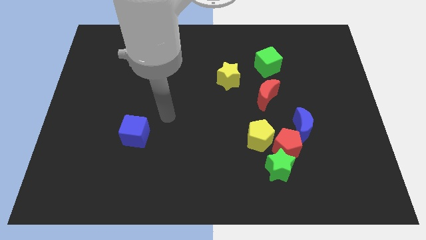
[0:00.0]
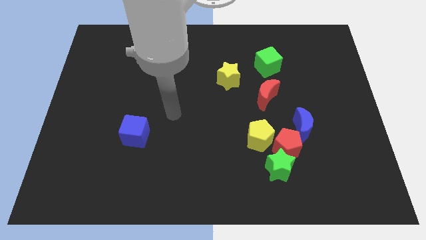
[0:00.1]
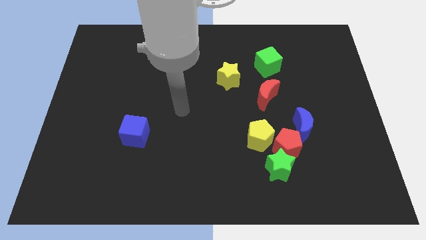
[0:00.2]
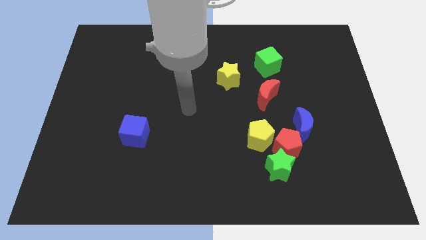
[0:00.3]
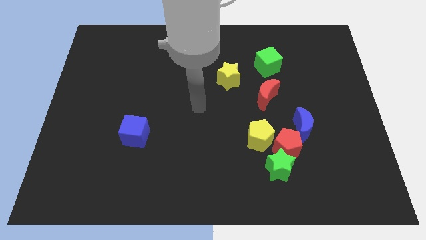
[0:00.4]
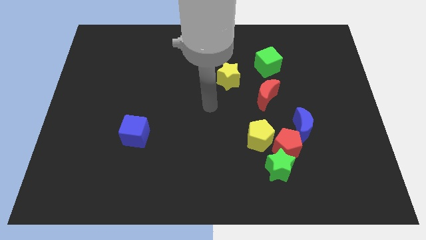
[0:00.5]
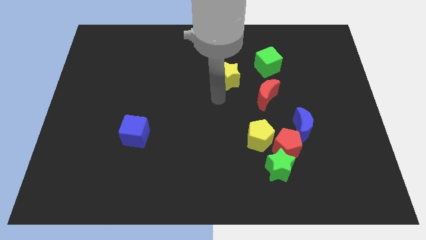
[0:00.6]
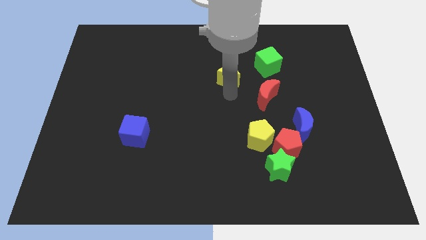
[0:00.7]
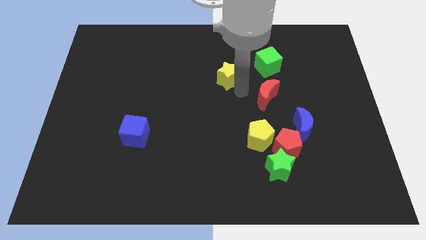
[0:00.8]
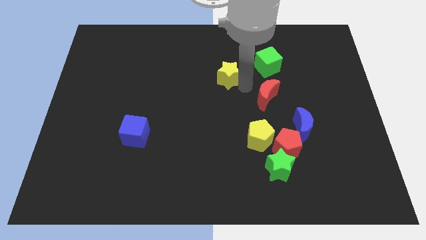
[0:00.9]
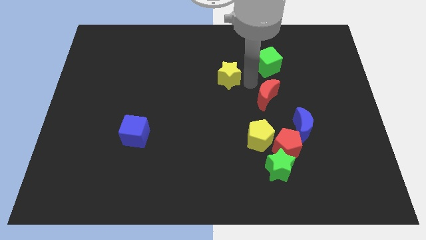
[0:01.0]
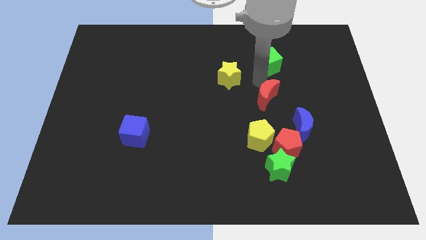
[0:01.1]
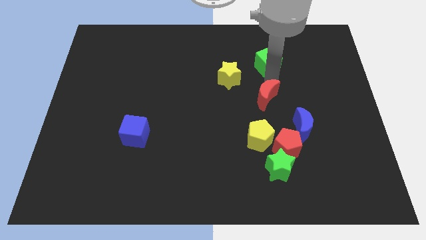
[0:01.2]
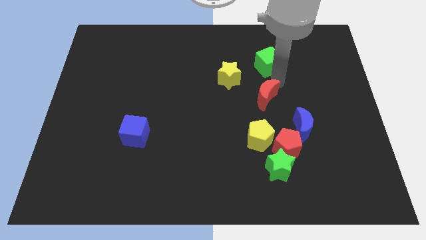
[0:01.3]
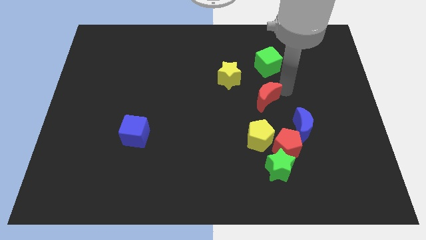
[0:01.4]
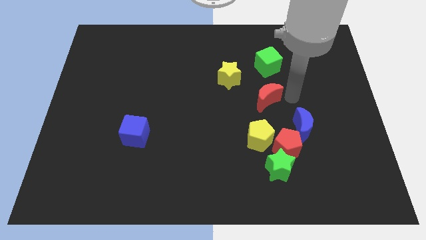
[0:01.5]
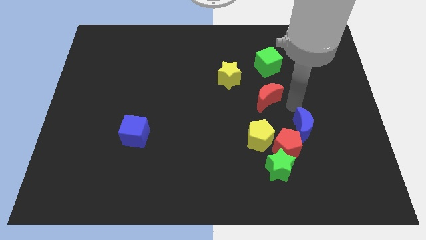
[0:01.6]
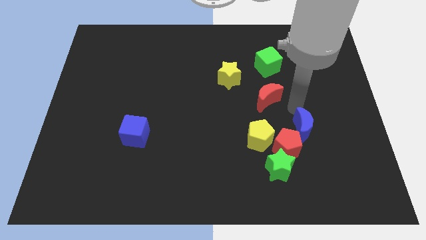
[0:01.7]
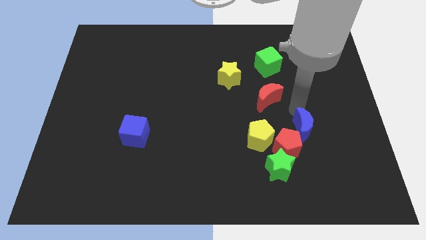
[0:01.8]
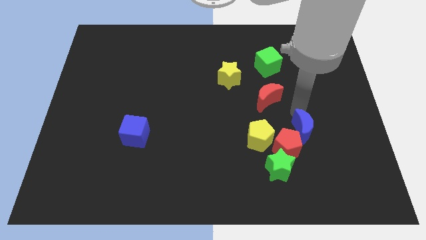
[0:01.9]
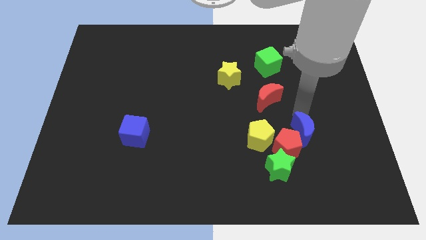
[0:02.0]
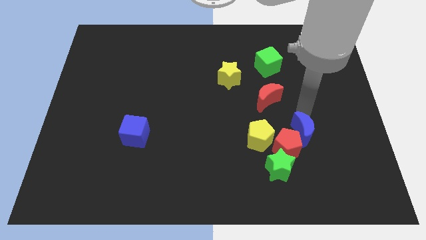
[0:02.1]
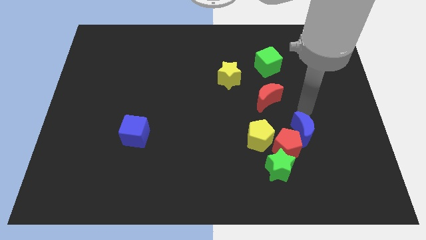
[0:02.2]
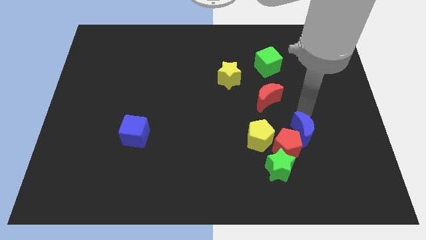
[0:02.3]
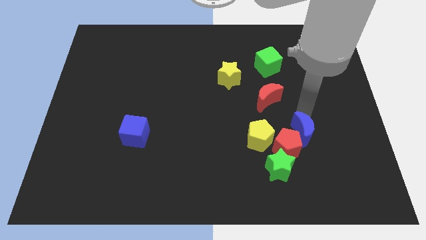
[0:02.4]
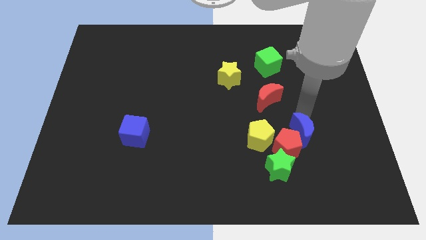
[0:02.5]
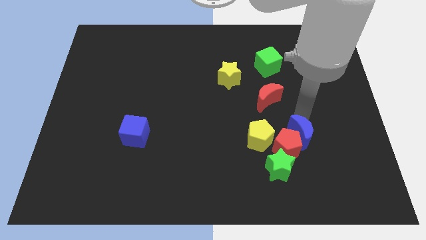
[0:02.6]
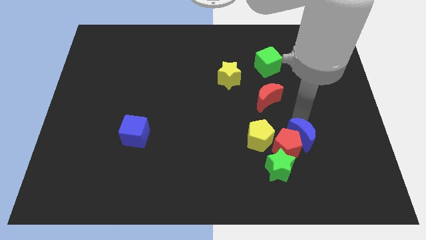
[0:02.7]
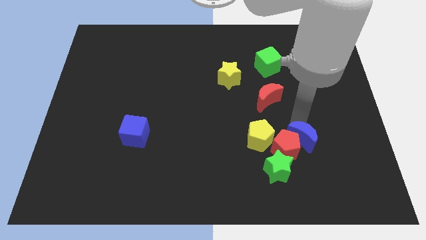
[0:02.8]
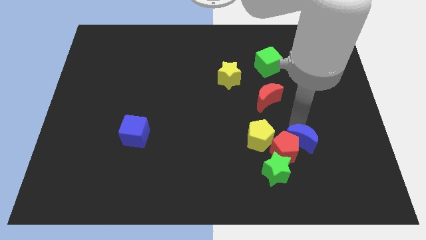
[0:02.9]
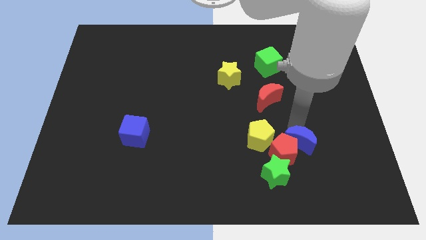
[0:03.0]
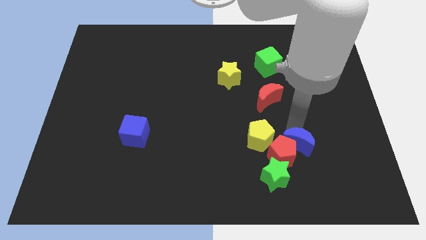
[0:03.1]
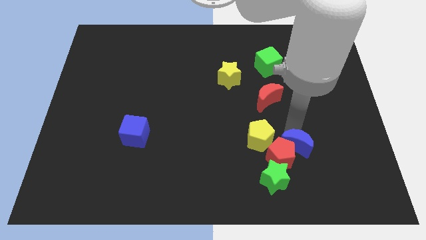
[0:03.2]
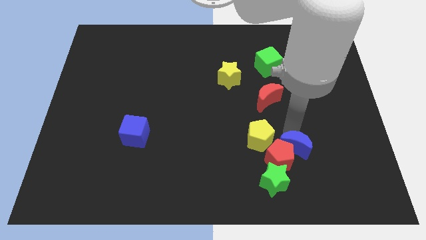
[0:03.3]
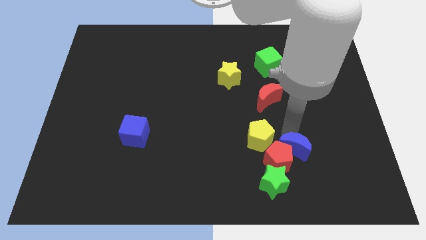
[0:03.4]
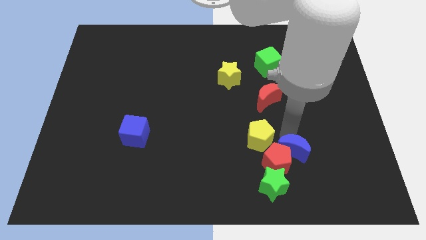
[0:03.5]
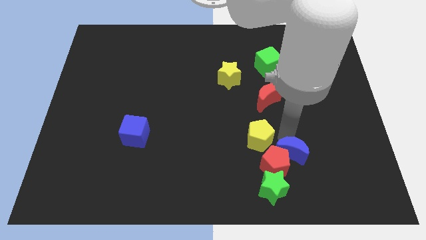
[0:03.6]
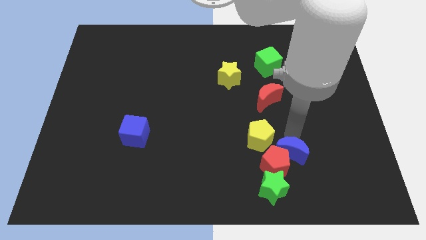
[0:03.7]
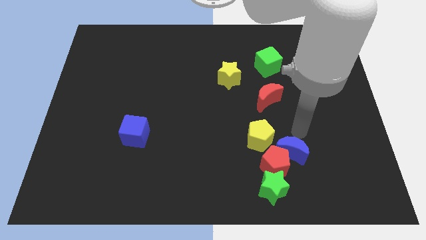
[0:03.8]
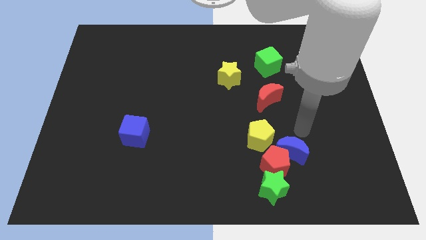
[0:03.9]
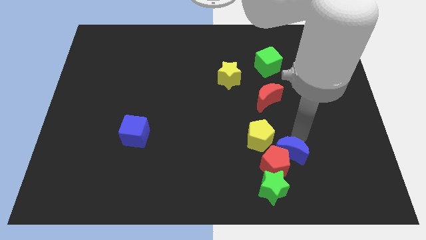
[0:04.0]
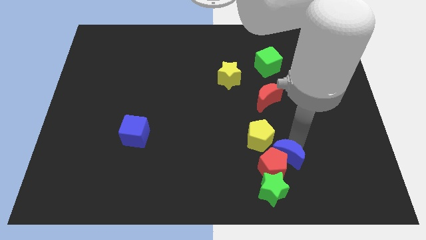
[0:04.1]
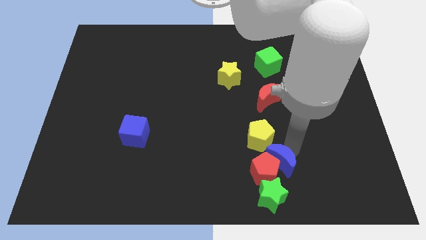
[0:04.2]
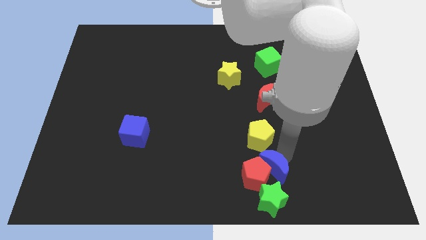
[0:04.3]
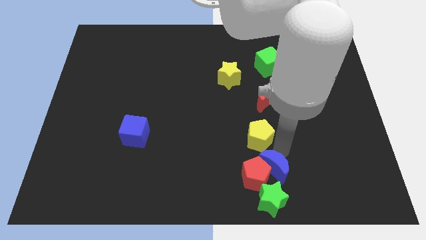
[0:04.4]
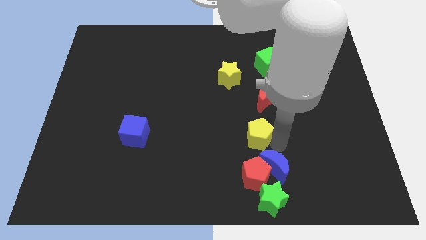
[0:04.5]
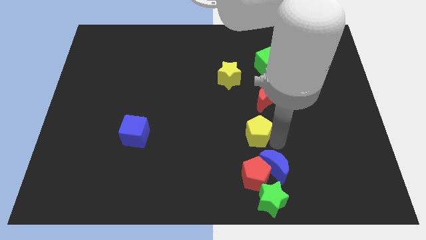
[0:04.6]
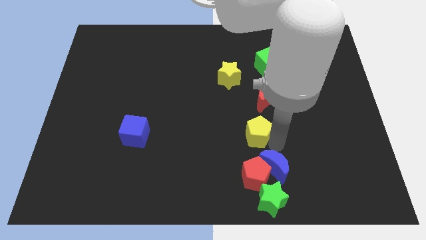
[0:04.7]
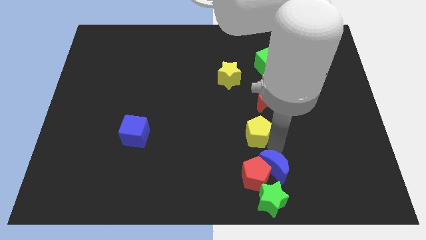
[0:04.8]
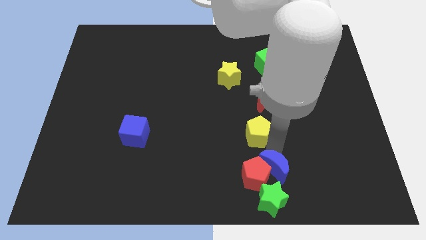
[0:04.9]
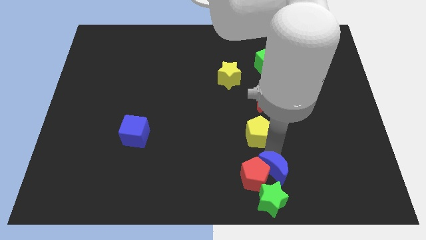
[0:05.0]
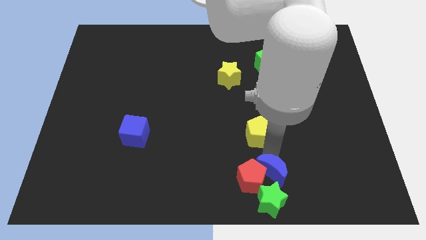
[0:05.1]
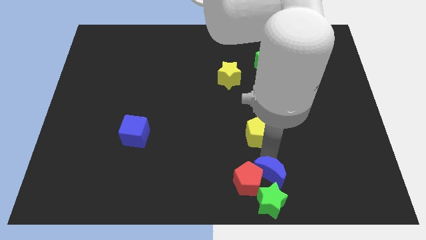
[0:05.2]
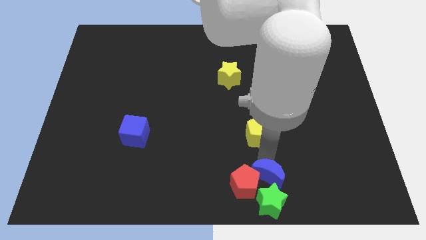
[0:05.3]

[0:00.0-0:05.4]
slide the blue moon towards the green star

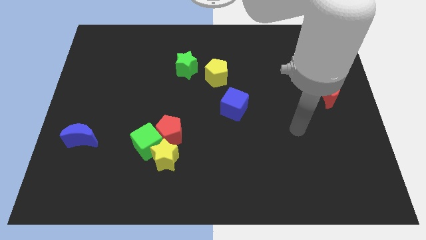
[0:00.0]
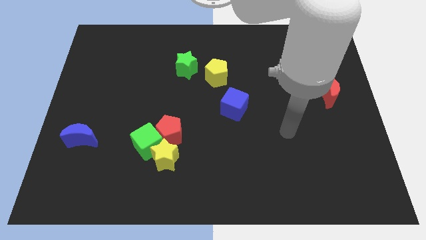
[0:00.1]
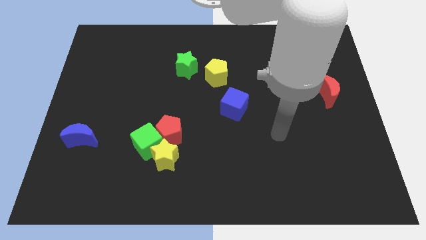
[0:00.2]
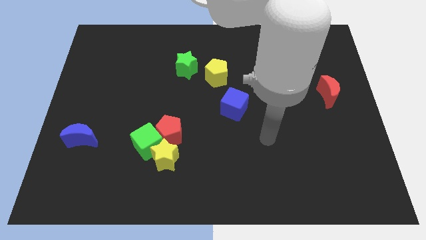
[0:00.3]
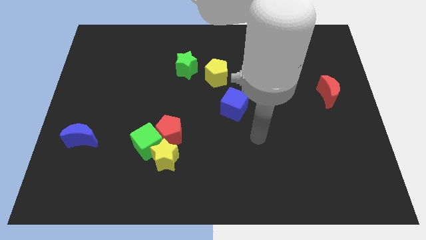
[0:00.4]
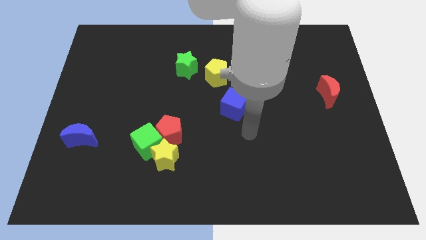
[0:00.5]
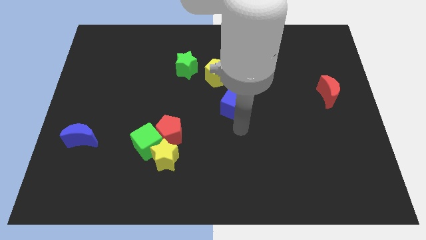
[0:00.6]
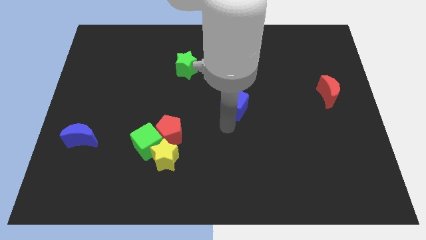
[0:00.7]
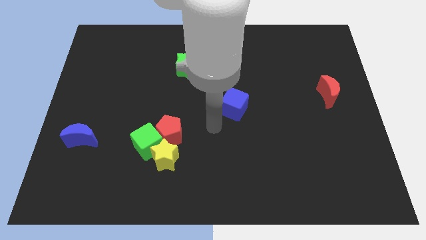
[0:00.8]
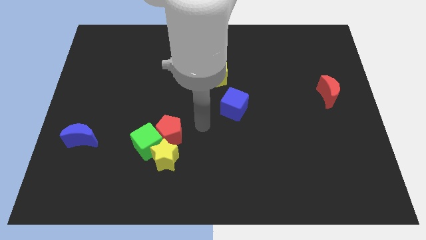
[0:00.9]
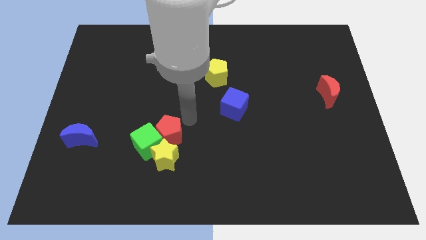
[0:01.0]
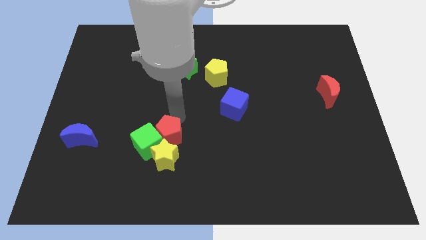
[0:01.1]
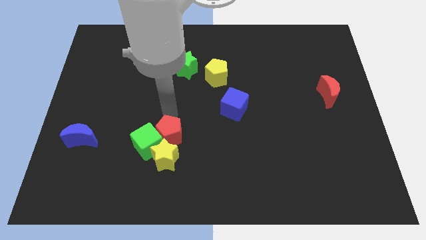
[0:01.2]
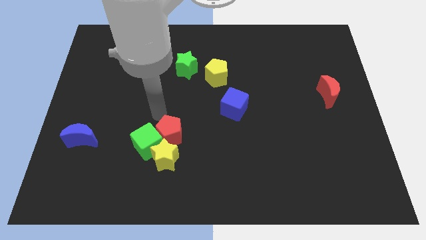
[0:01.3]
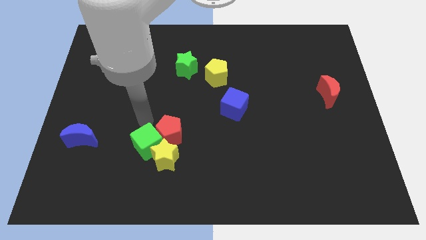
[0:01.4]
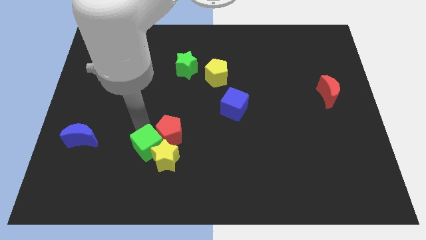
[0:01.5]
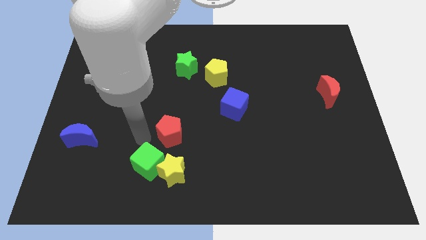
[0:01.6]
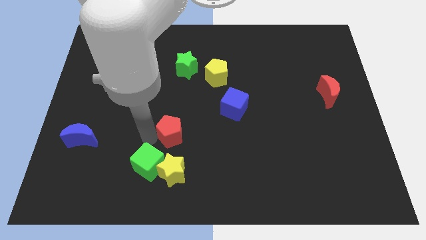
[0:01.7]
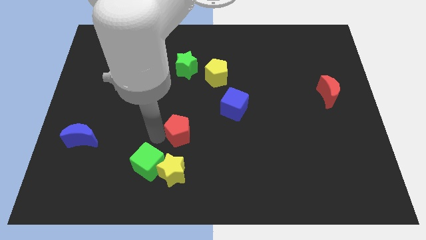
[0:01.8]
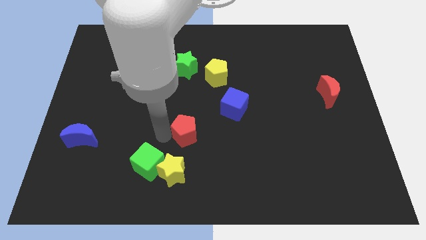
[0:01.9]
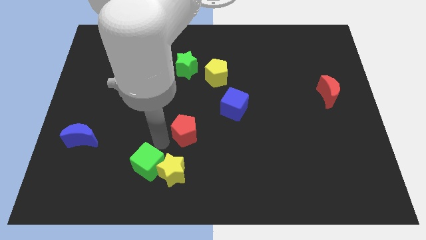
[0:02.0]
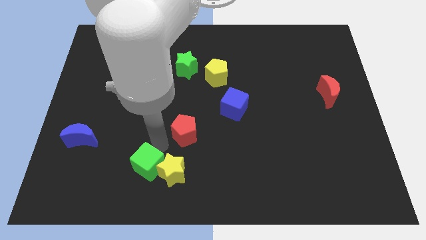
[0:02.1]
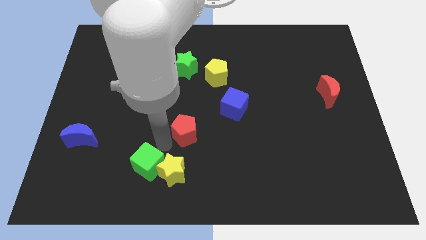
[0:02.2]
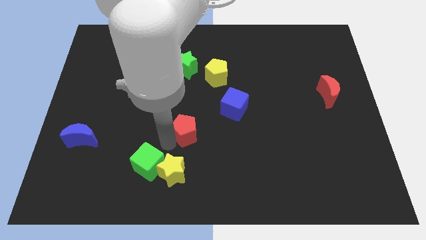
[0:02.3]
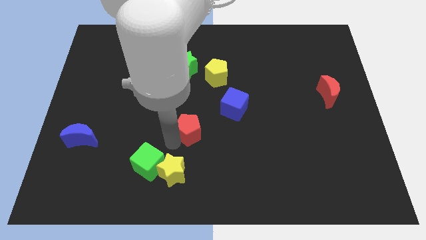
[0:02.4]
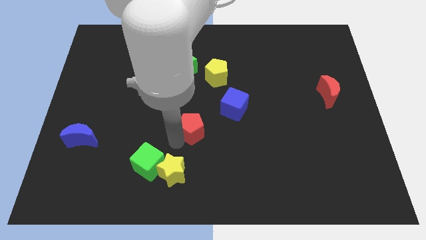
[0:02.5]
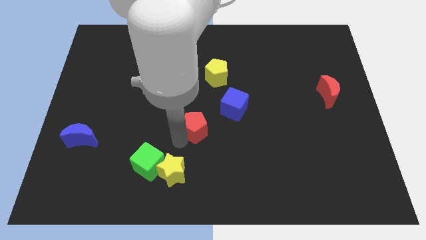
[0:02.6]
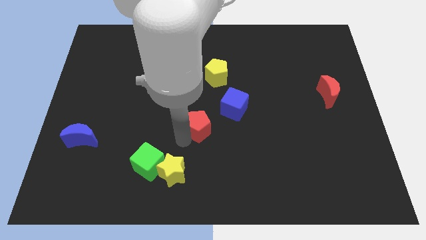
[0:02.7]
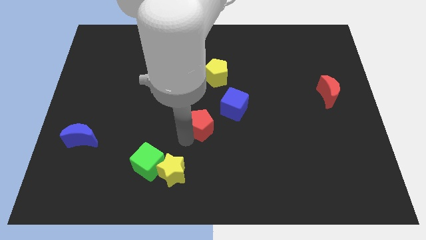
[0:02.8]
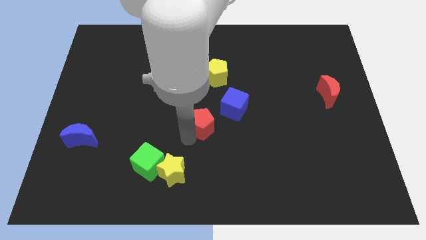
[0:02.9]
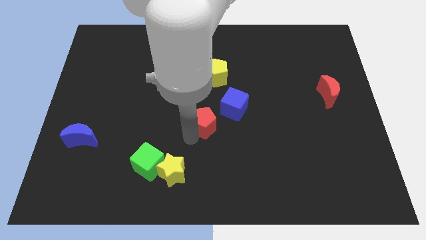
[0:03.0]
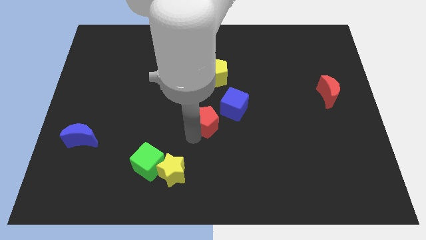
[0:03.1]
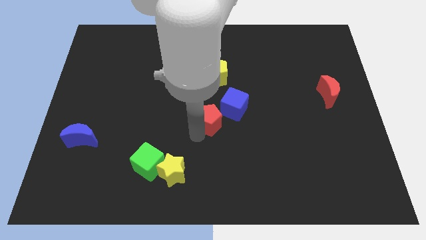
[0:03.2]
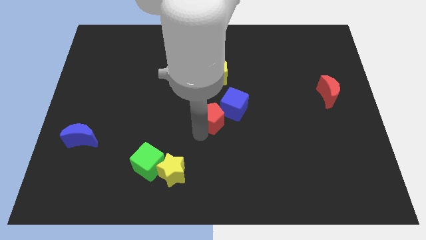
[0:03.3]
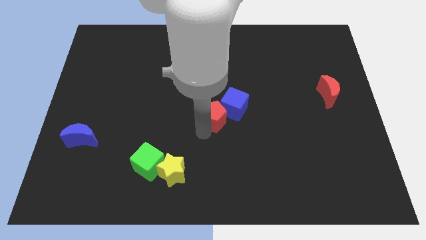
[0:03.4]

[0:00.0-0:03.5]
move the red pentagon next to the blue cube
